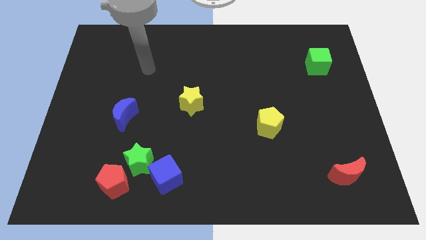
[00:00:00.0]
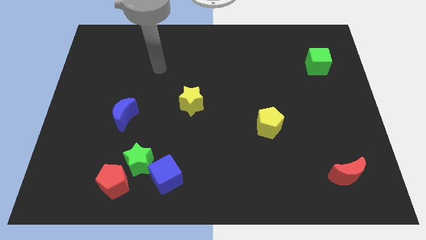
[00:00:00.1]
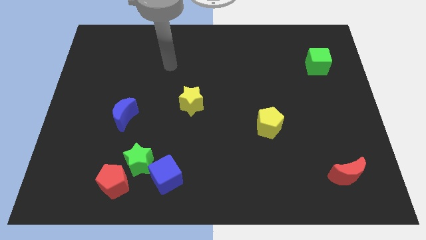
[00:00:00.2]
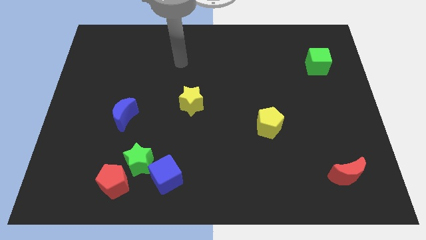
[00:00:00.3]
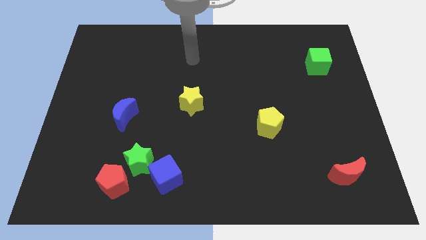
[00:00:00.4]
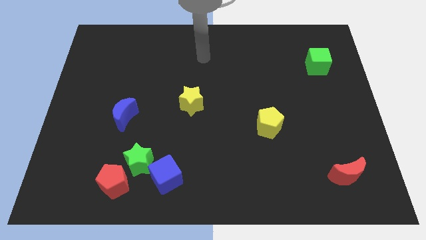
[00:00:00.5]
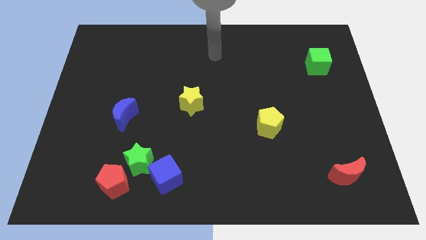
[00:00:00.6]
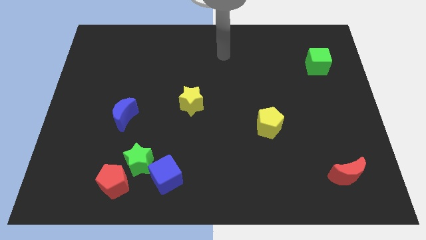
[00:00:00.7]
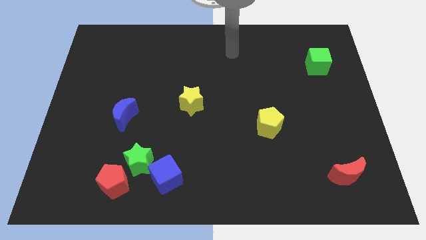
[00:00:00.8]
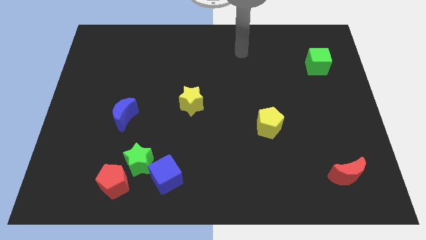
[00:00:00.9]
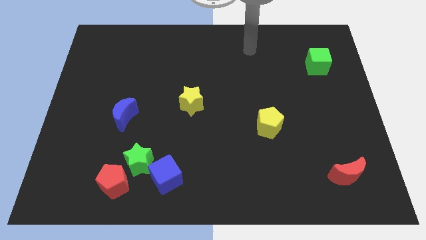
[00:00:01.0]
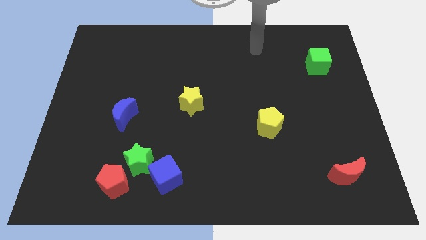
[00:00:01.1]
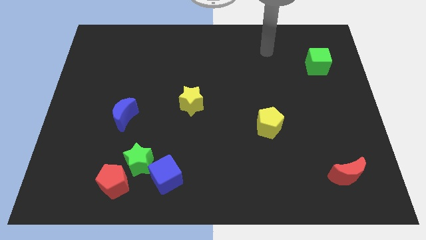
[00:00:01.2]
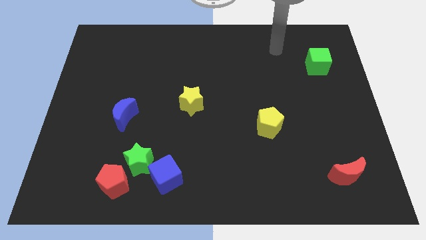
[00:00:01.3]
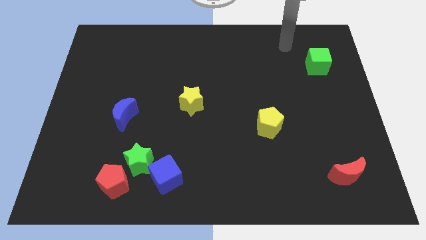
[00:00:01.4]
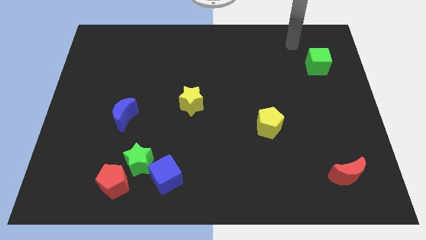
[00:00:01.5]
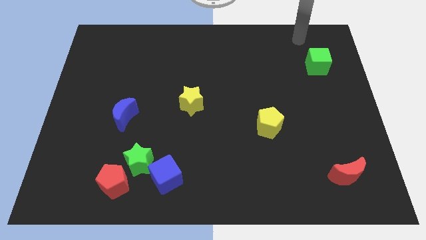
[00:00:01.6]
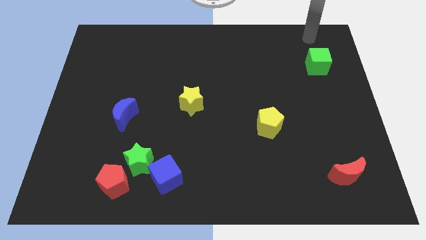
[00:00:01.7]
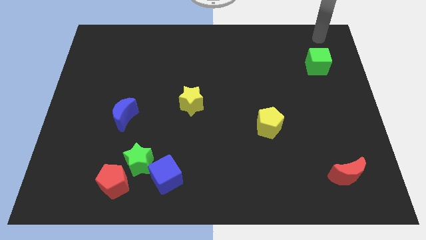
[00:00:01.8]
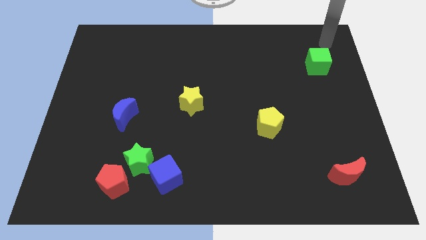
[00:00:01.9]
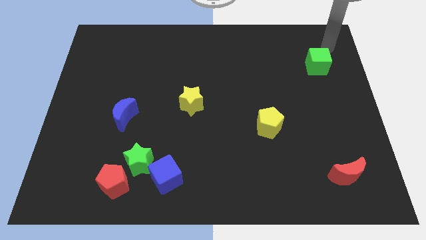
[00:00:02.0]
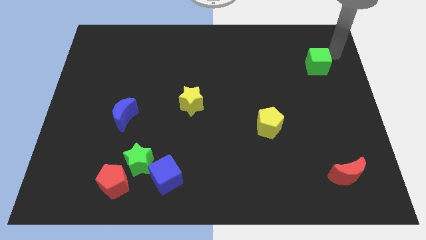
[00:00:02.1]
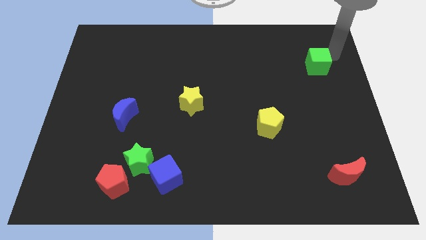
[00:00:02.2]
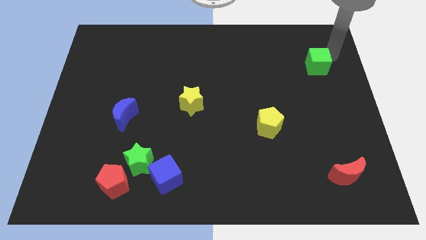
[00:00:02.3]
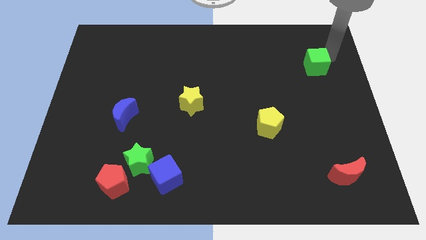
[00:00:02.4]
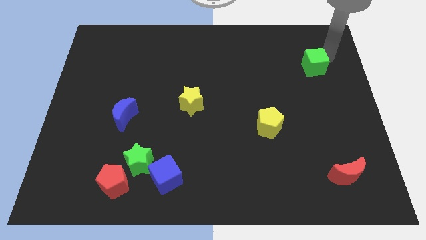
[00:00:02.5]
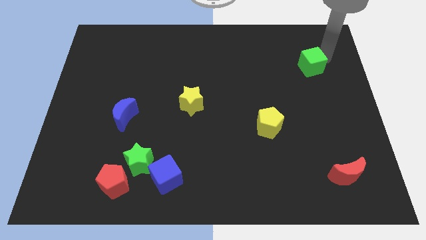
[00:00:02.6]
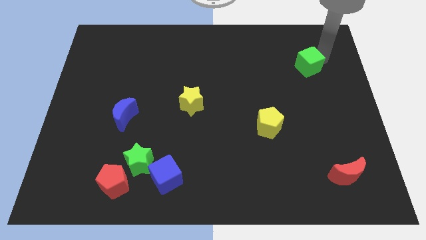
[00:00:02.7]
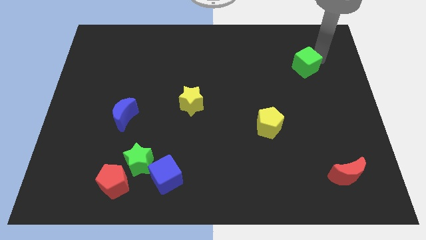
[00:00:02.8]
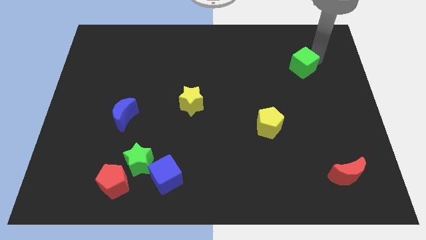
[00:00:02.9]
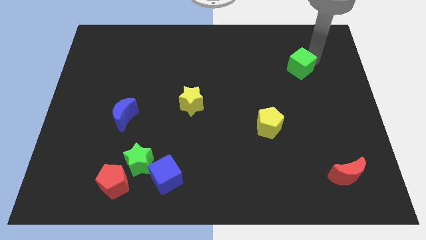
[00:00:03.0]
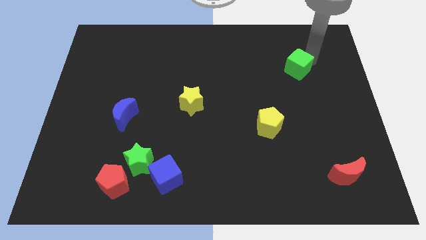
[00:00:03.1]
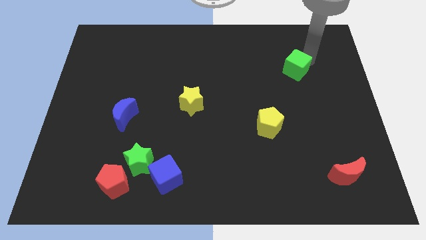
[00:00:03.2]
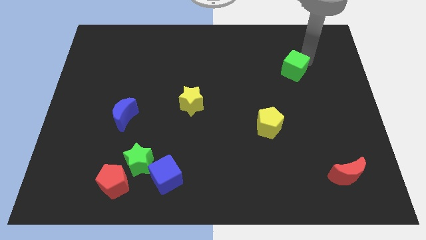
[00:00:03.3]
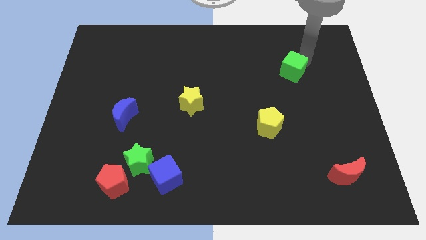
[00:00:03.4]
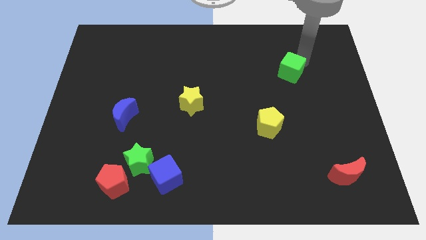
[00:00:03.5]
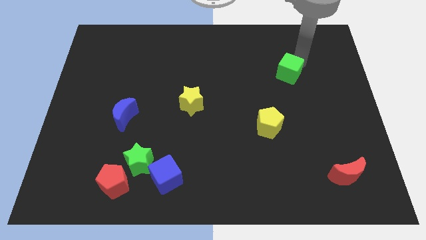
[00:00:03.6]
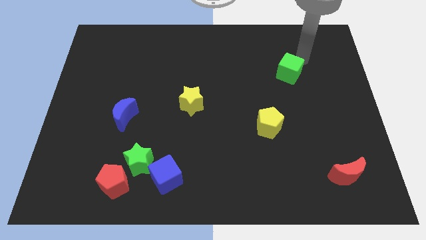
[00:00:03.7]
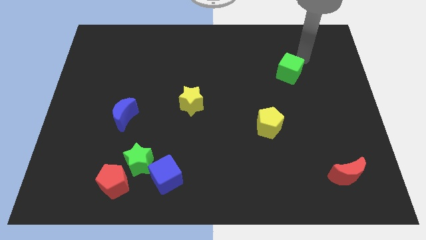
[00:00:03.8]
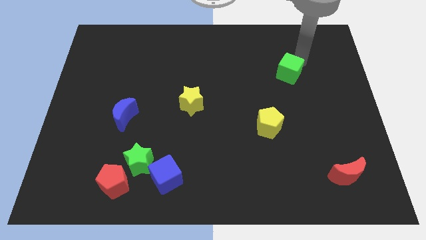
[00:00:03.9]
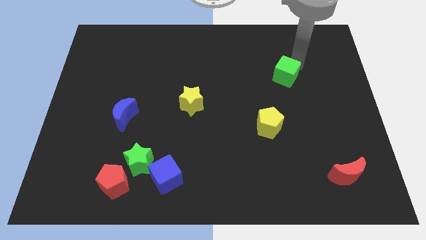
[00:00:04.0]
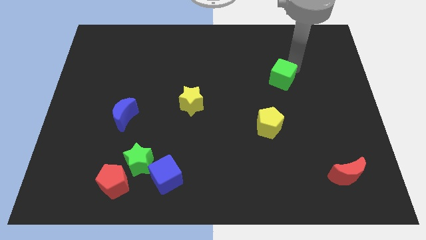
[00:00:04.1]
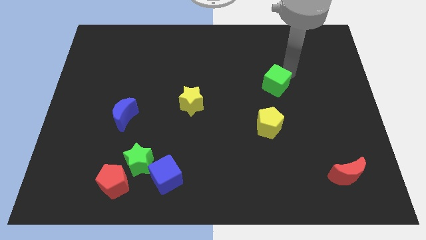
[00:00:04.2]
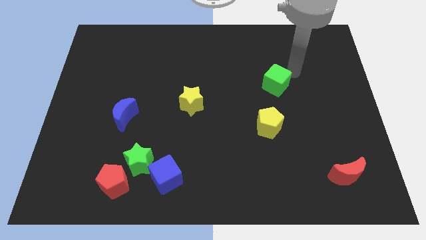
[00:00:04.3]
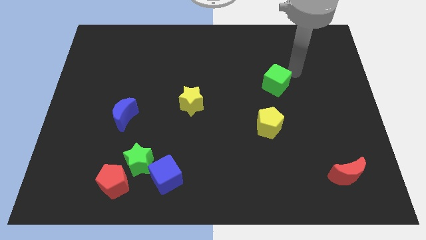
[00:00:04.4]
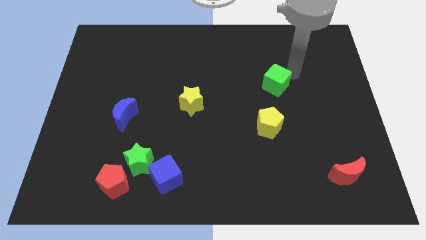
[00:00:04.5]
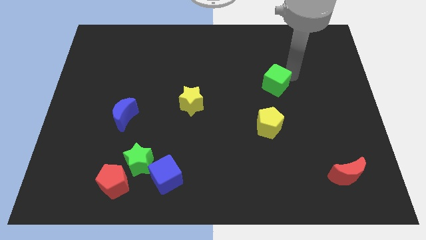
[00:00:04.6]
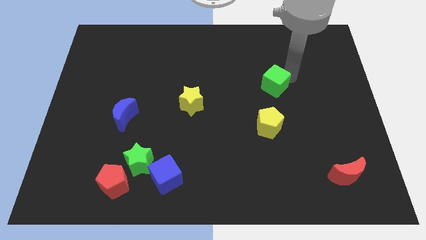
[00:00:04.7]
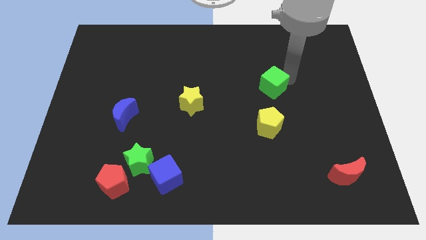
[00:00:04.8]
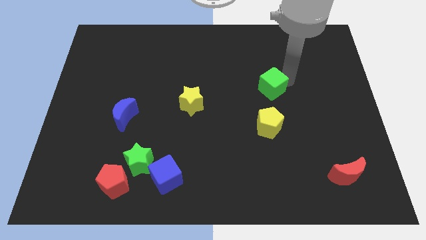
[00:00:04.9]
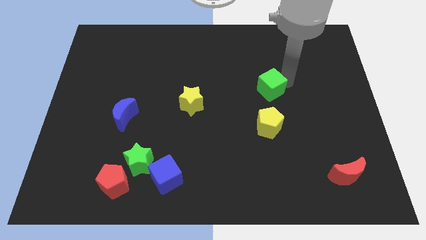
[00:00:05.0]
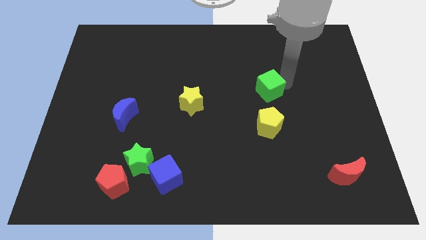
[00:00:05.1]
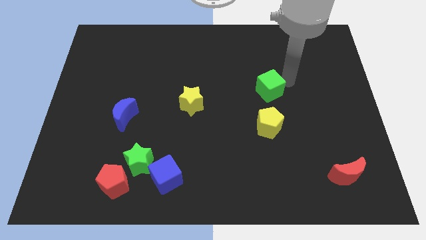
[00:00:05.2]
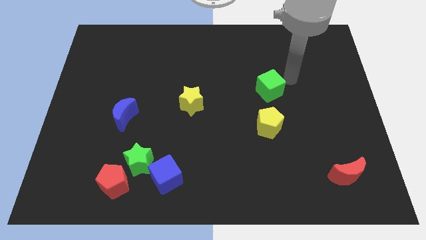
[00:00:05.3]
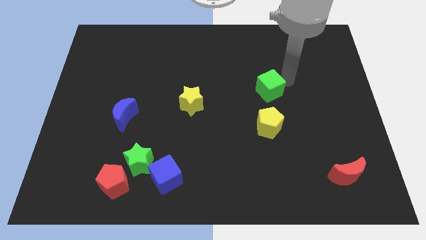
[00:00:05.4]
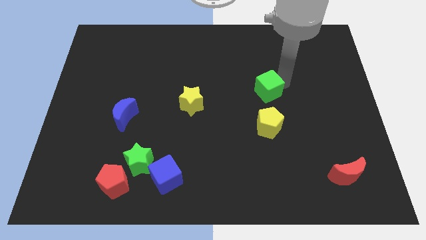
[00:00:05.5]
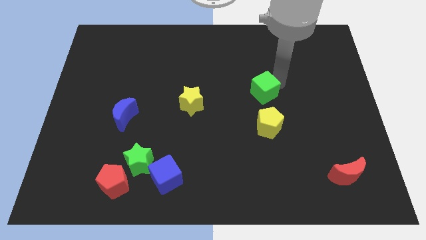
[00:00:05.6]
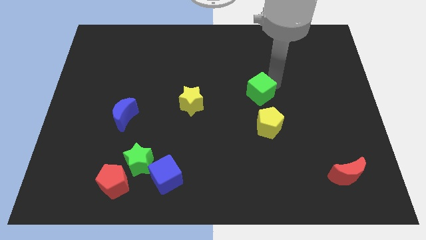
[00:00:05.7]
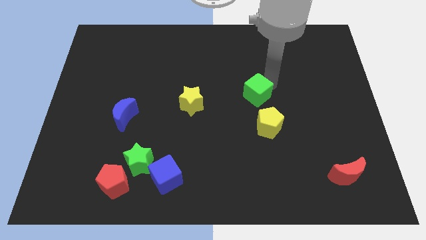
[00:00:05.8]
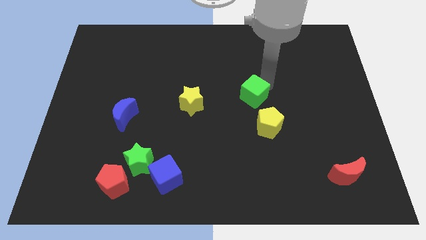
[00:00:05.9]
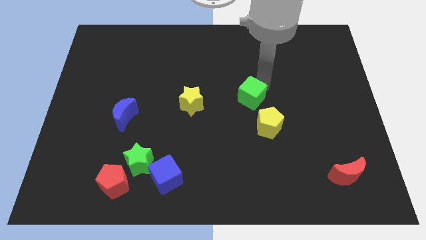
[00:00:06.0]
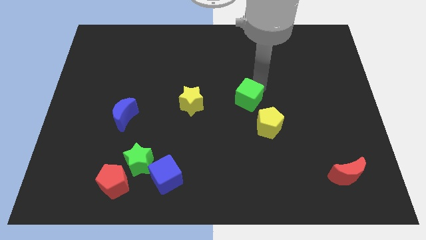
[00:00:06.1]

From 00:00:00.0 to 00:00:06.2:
push the green cube down and then left

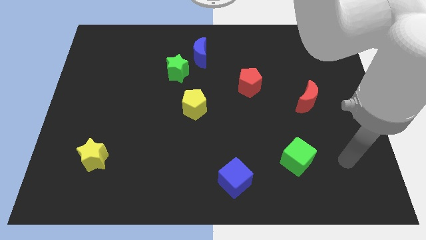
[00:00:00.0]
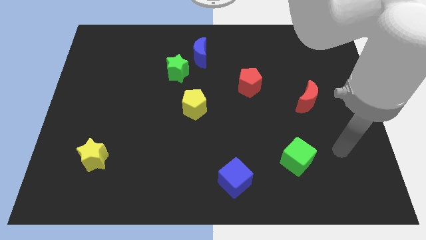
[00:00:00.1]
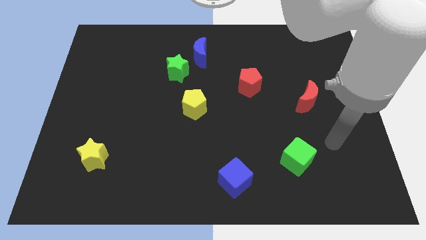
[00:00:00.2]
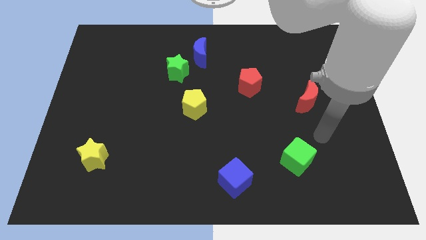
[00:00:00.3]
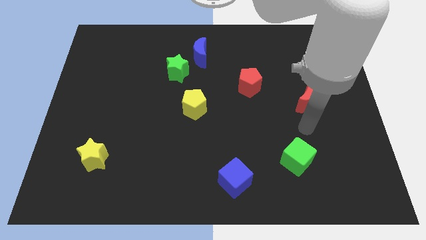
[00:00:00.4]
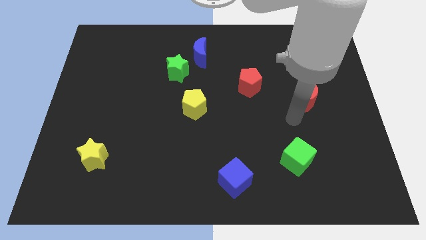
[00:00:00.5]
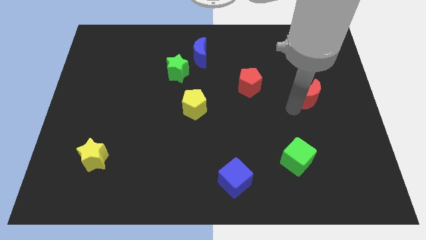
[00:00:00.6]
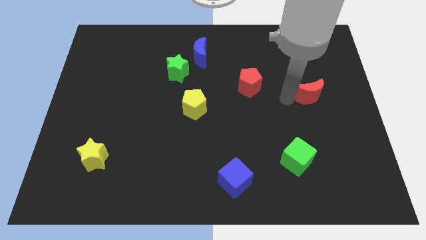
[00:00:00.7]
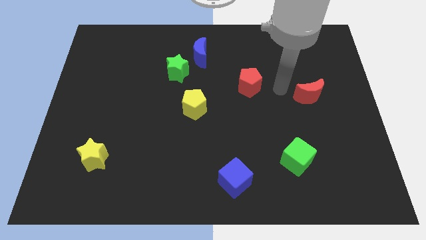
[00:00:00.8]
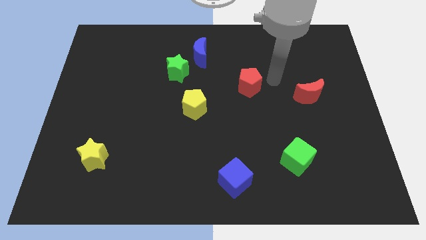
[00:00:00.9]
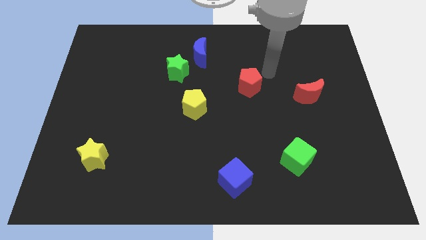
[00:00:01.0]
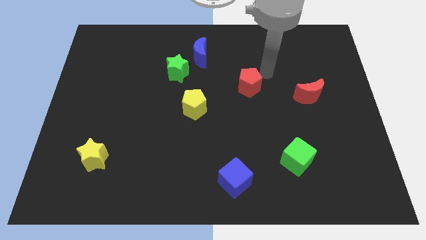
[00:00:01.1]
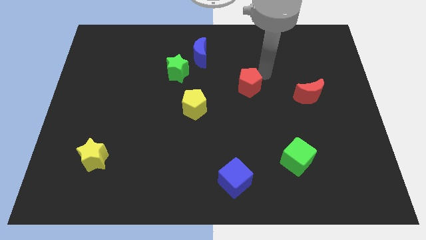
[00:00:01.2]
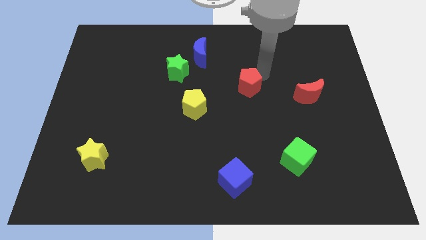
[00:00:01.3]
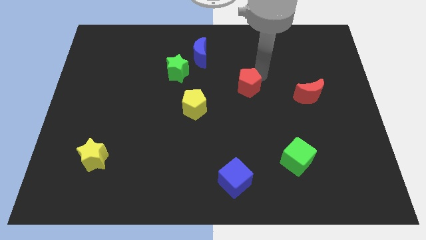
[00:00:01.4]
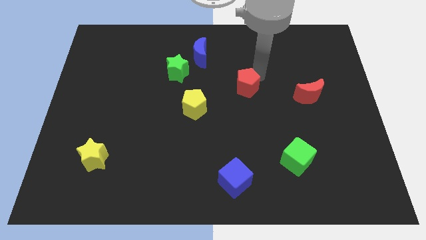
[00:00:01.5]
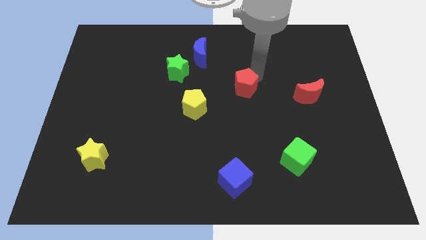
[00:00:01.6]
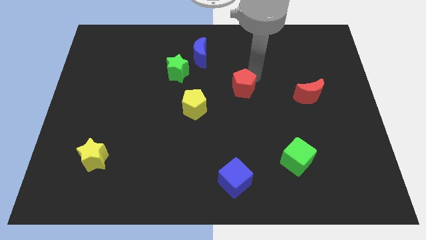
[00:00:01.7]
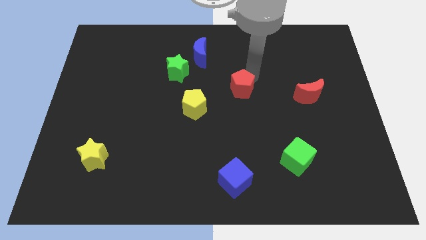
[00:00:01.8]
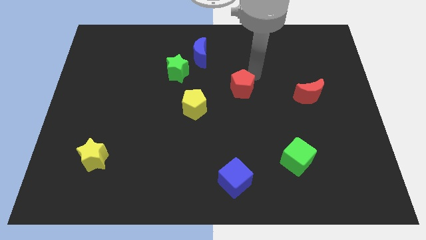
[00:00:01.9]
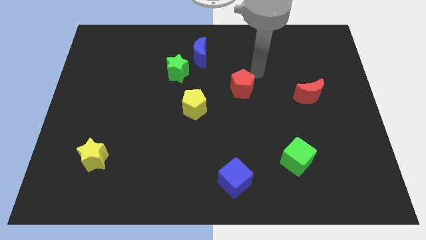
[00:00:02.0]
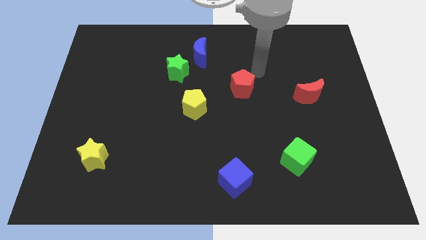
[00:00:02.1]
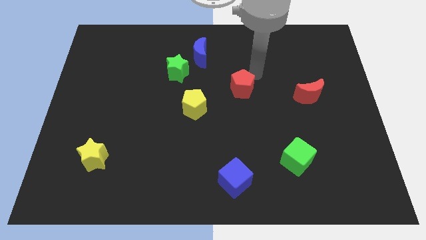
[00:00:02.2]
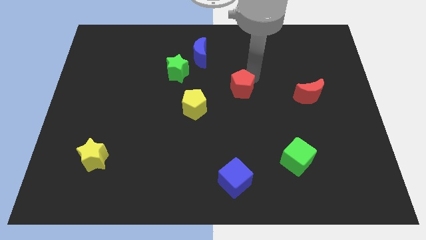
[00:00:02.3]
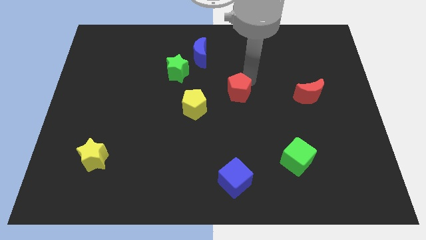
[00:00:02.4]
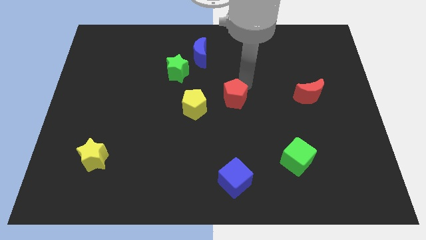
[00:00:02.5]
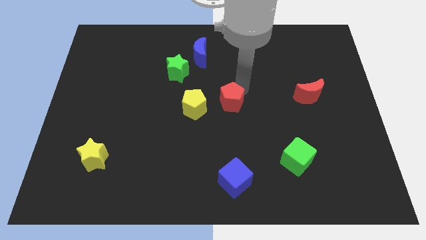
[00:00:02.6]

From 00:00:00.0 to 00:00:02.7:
slightly slide the red pentagon downwards and left diagonally
